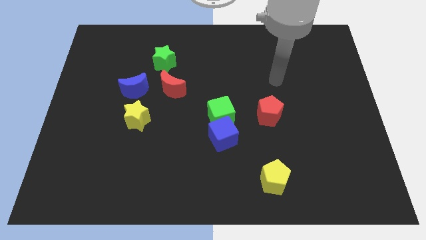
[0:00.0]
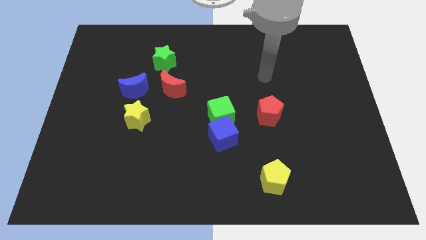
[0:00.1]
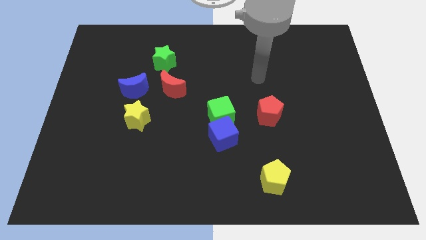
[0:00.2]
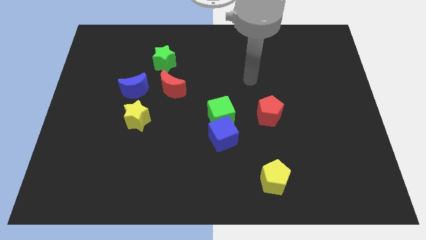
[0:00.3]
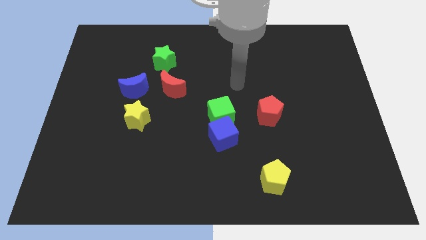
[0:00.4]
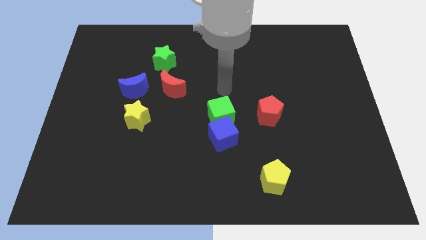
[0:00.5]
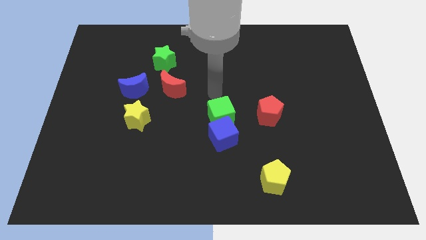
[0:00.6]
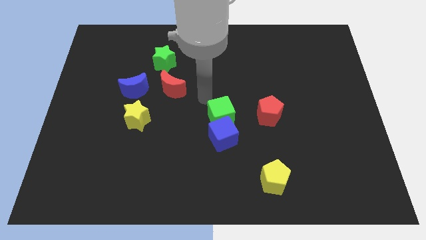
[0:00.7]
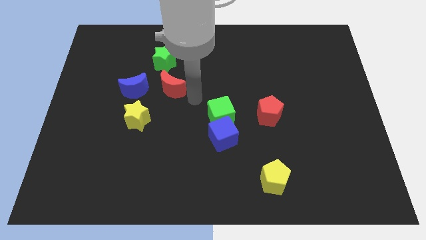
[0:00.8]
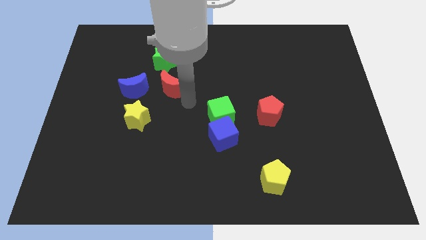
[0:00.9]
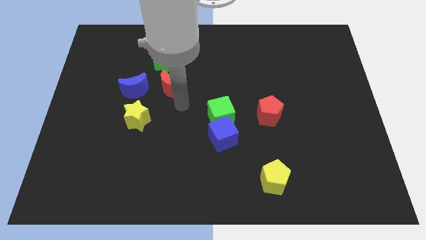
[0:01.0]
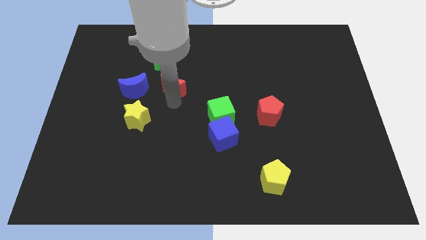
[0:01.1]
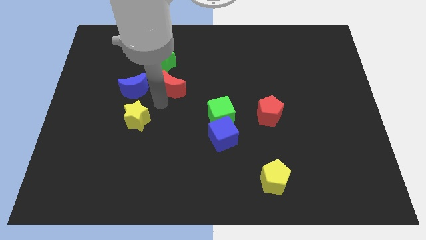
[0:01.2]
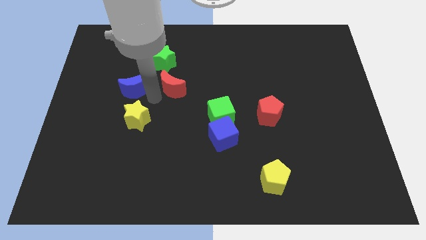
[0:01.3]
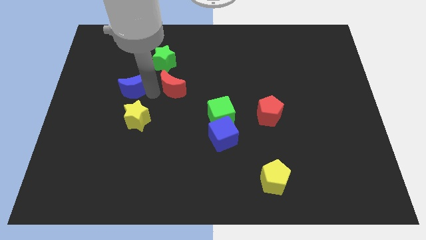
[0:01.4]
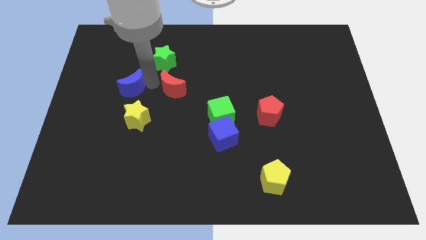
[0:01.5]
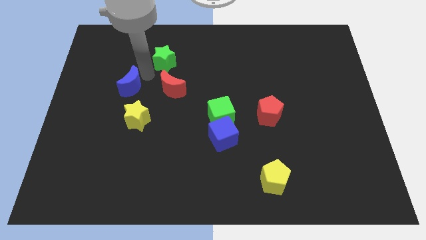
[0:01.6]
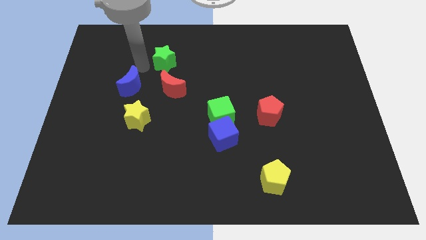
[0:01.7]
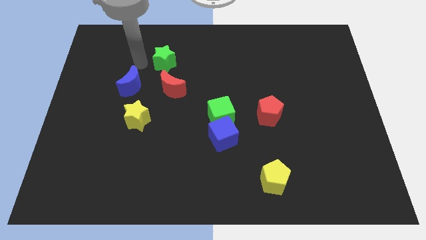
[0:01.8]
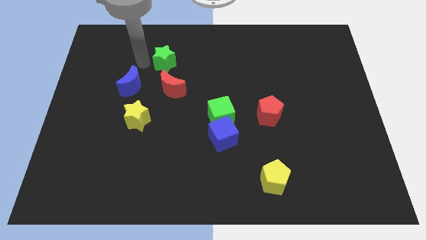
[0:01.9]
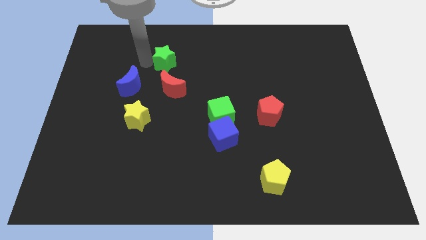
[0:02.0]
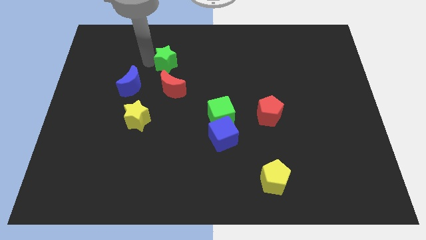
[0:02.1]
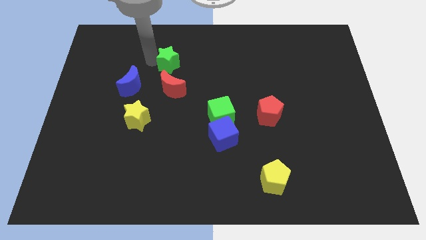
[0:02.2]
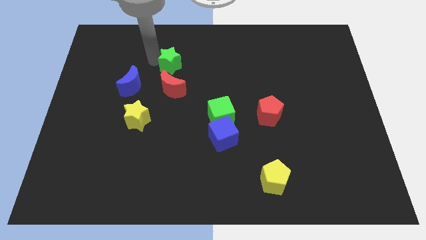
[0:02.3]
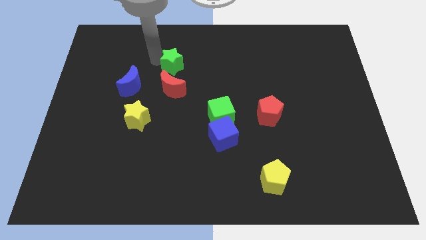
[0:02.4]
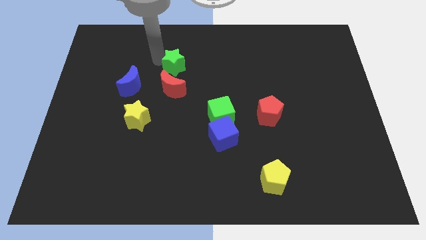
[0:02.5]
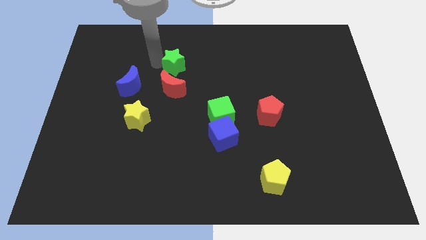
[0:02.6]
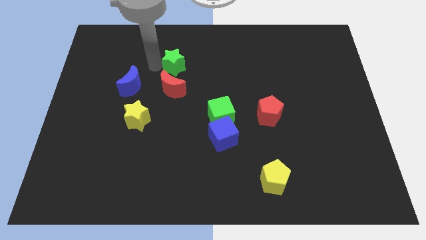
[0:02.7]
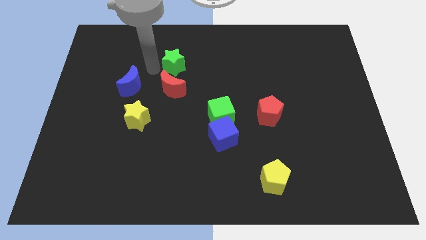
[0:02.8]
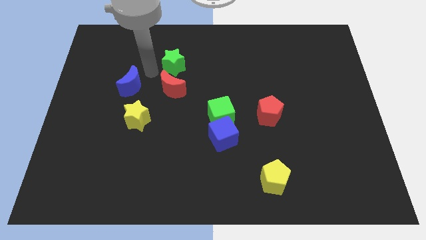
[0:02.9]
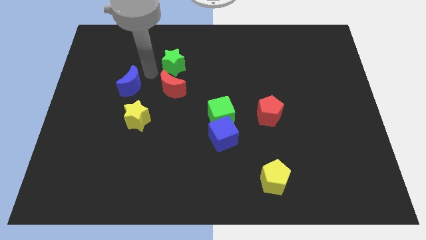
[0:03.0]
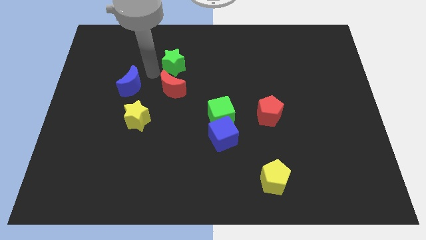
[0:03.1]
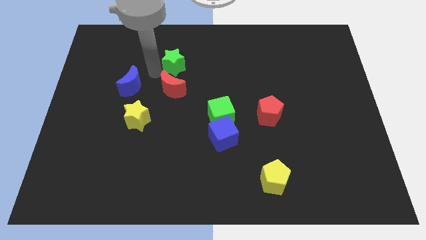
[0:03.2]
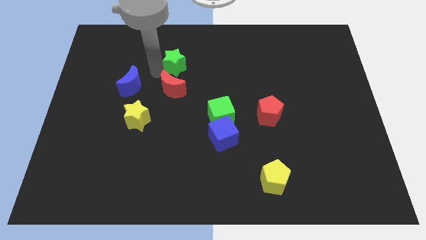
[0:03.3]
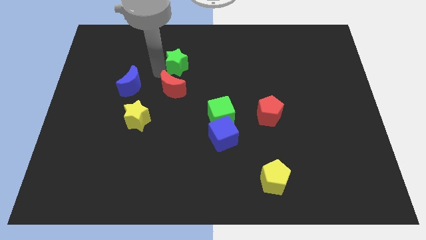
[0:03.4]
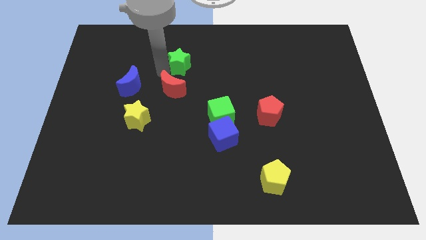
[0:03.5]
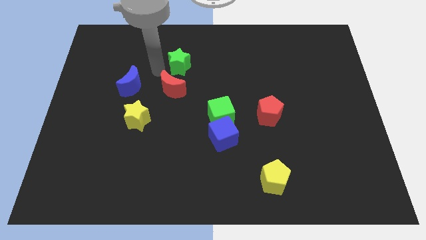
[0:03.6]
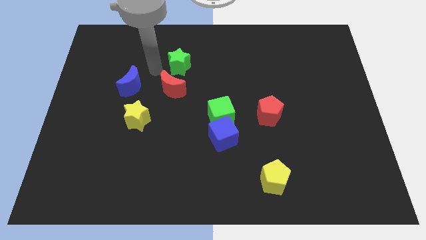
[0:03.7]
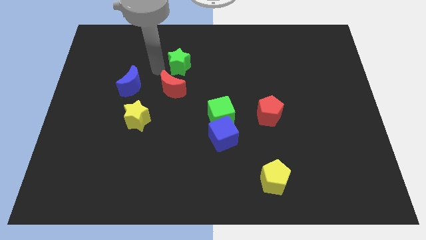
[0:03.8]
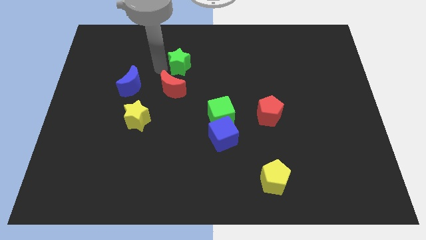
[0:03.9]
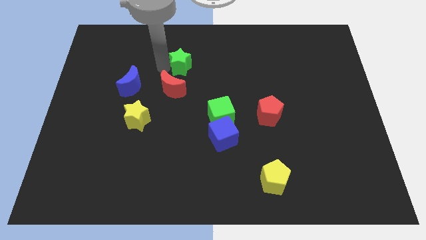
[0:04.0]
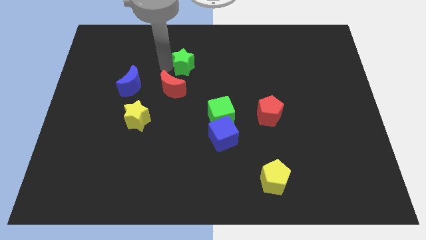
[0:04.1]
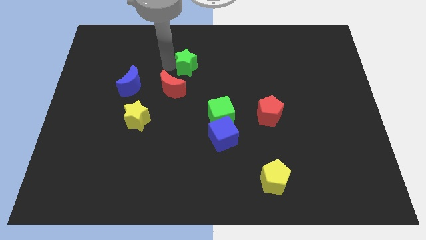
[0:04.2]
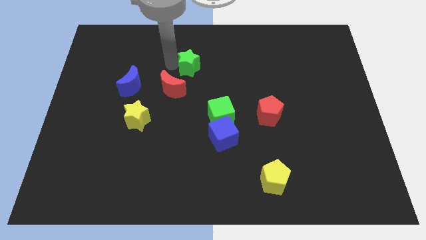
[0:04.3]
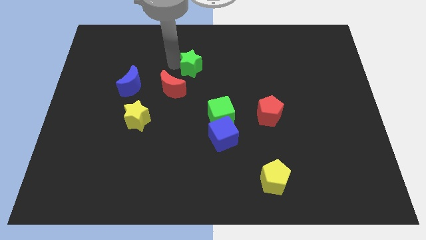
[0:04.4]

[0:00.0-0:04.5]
move the green star right a little bit

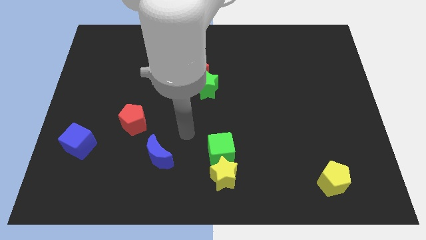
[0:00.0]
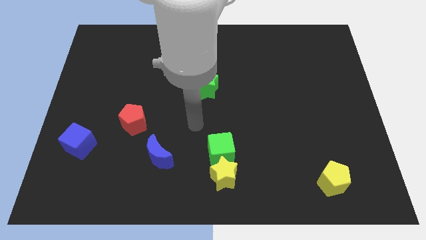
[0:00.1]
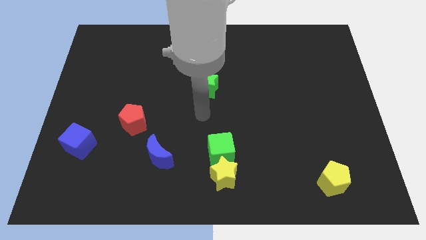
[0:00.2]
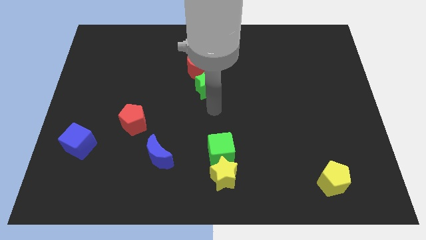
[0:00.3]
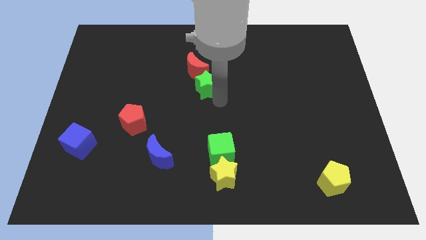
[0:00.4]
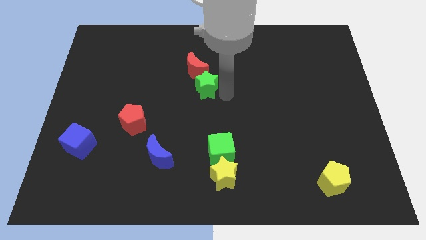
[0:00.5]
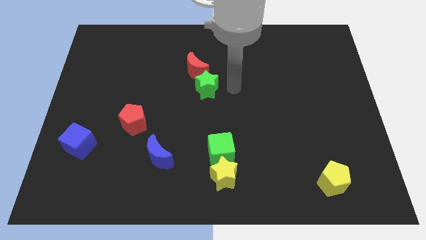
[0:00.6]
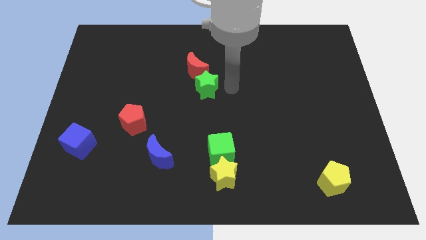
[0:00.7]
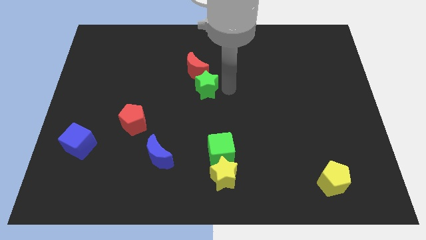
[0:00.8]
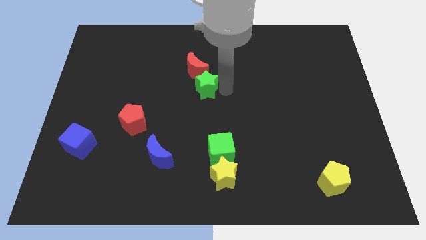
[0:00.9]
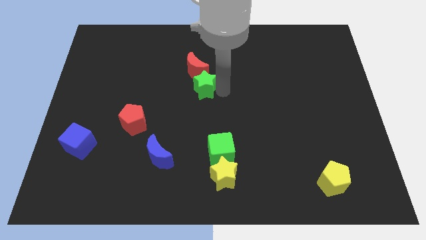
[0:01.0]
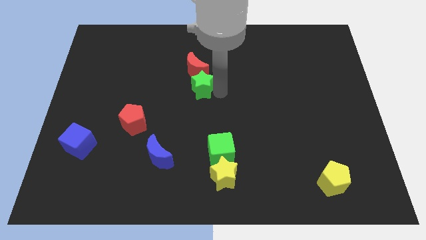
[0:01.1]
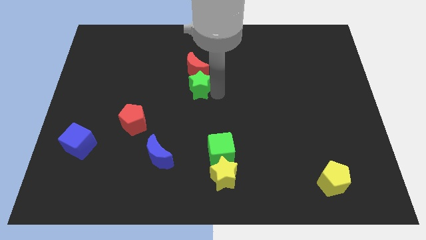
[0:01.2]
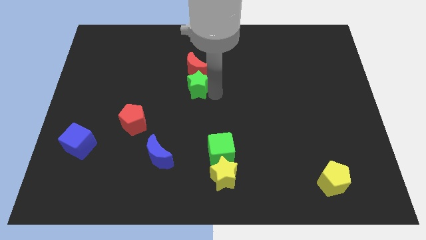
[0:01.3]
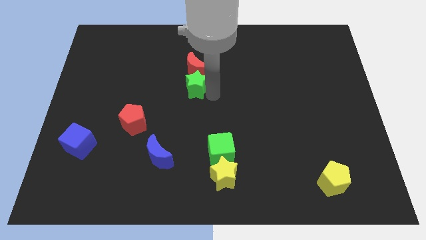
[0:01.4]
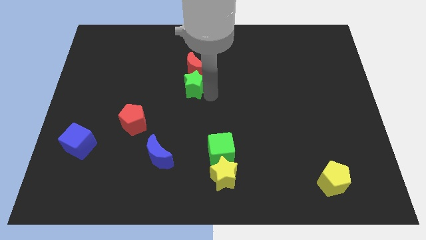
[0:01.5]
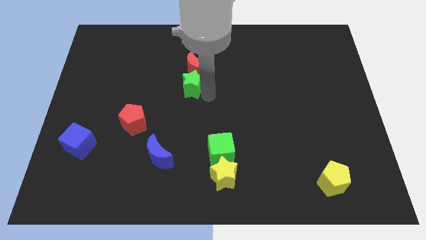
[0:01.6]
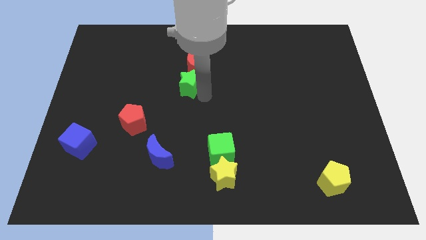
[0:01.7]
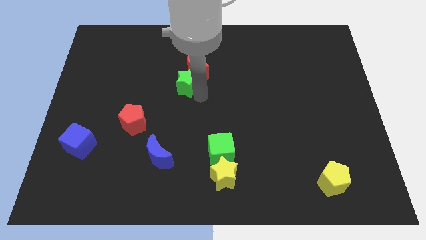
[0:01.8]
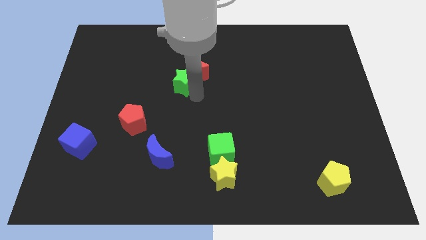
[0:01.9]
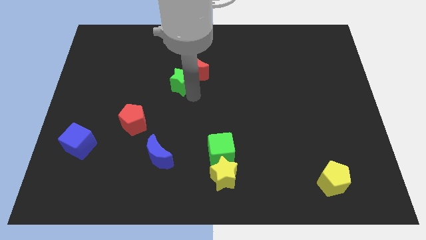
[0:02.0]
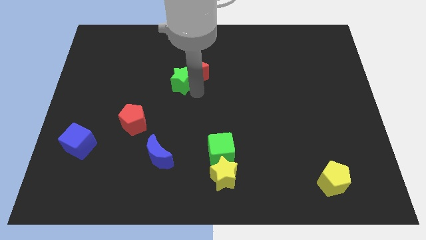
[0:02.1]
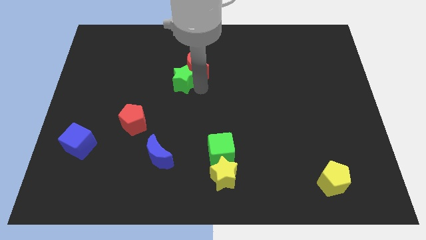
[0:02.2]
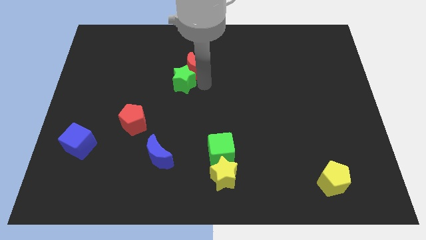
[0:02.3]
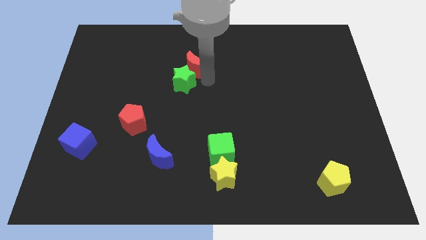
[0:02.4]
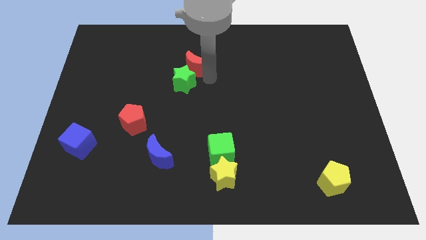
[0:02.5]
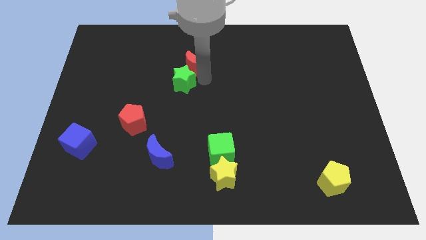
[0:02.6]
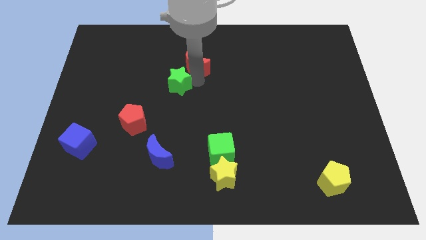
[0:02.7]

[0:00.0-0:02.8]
push the green star to the left slightly

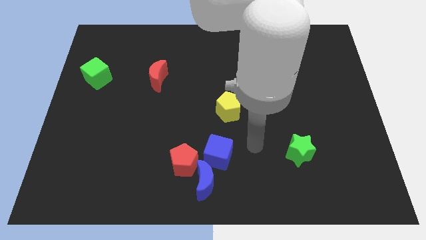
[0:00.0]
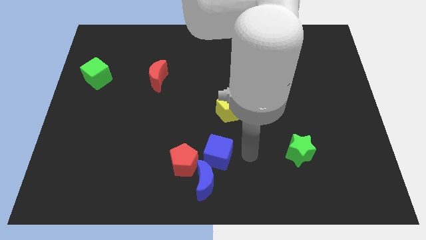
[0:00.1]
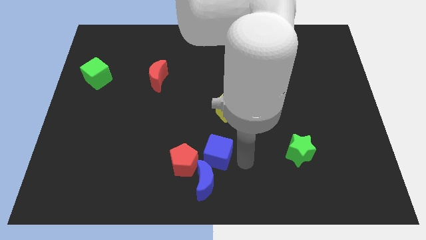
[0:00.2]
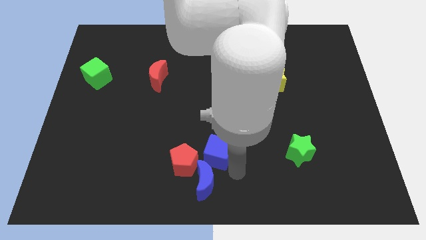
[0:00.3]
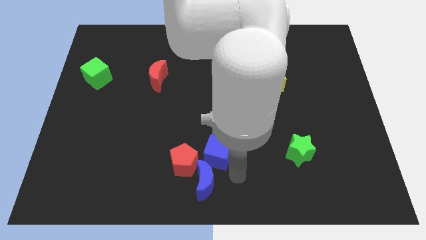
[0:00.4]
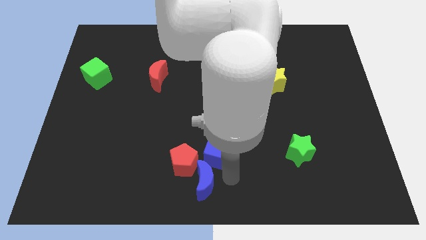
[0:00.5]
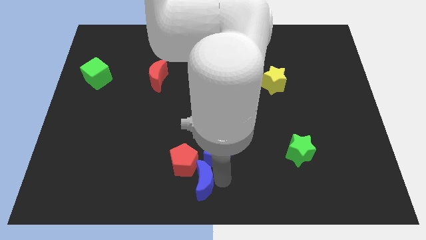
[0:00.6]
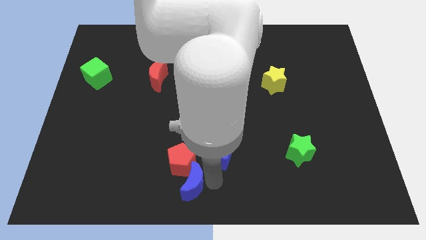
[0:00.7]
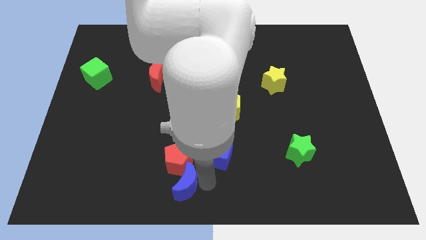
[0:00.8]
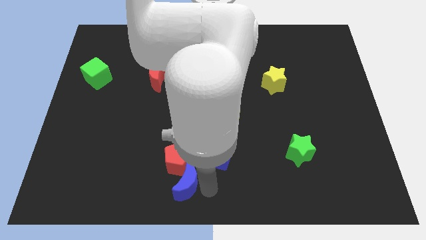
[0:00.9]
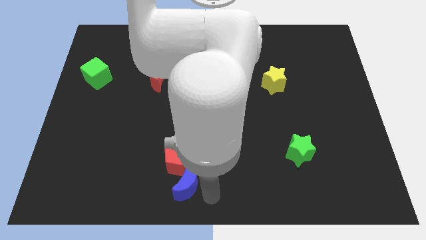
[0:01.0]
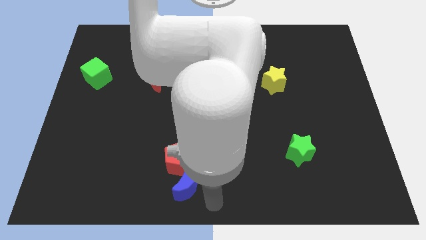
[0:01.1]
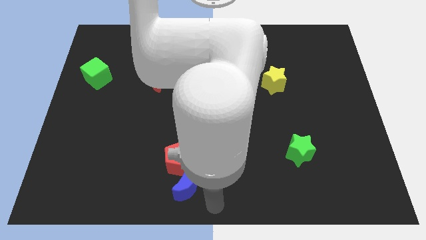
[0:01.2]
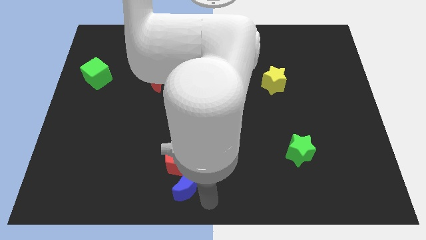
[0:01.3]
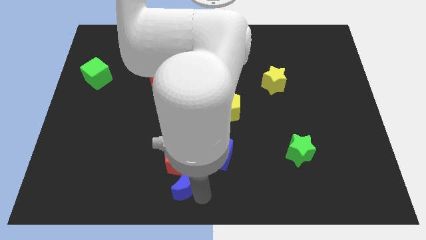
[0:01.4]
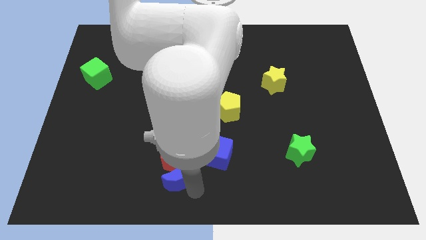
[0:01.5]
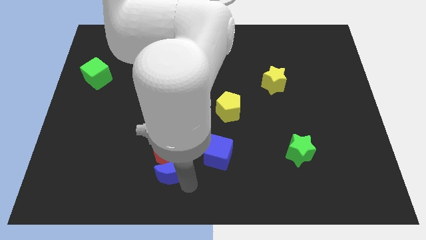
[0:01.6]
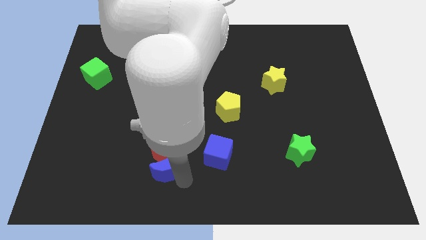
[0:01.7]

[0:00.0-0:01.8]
slide the blue moon a little bit diagonally upwards and left
